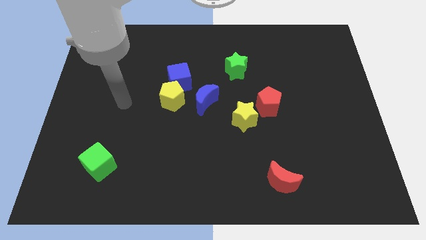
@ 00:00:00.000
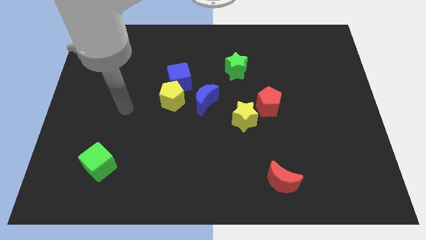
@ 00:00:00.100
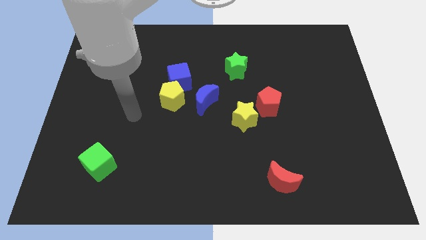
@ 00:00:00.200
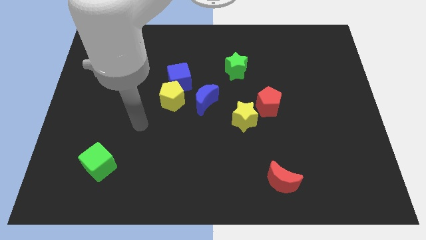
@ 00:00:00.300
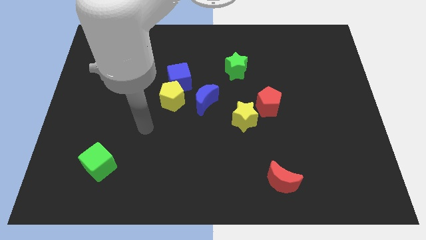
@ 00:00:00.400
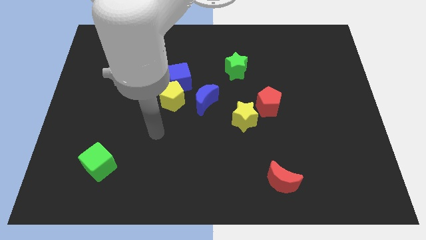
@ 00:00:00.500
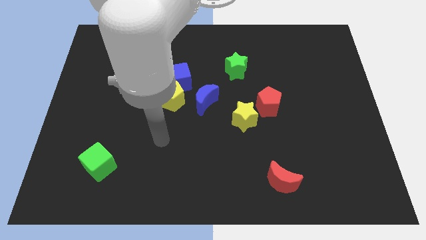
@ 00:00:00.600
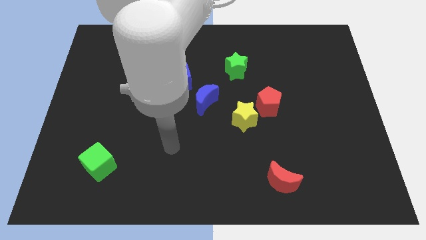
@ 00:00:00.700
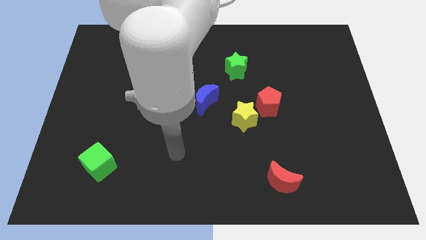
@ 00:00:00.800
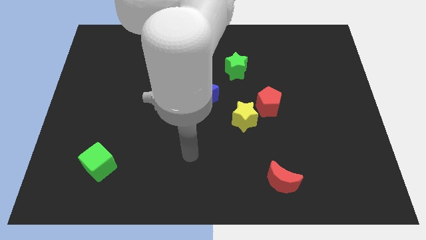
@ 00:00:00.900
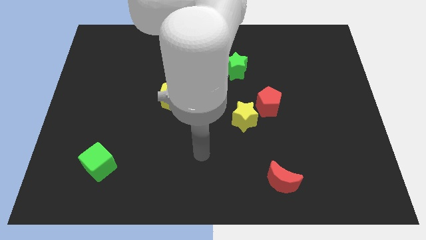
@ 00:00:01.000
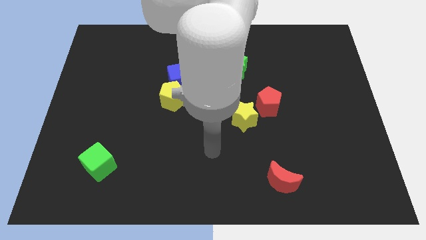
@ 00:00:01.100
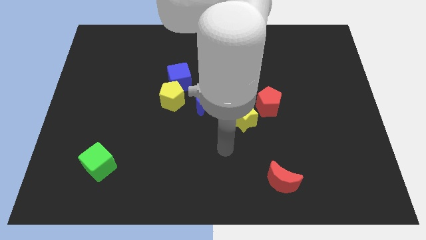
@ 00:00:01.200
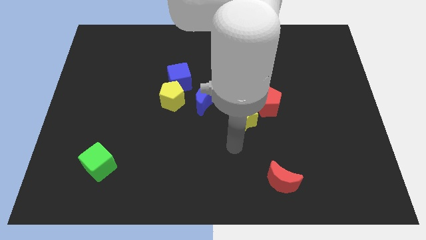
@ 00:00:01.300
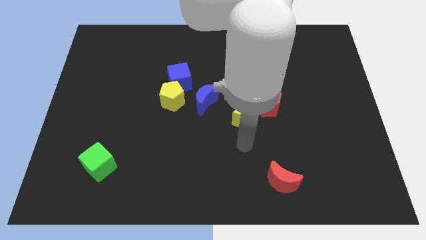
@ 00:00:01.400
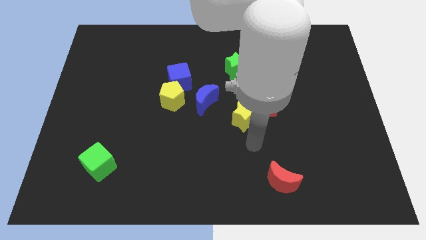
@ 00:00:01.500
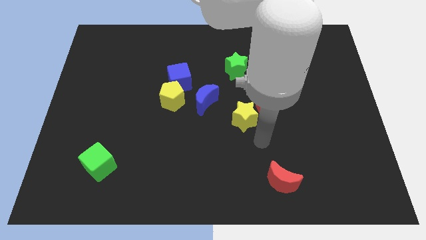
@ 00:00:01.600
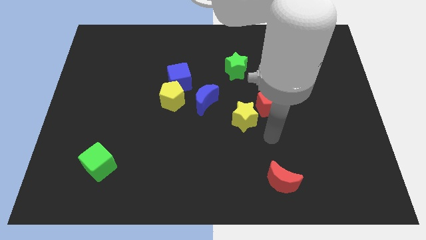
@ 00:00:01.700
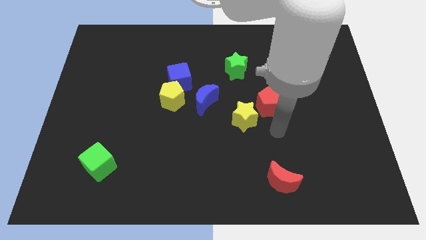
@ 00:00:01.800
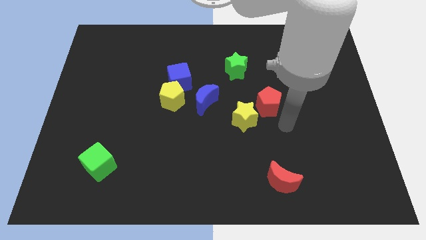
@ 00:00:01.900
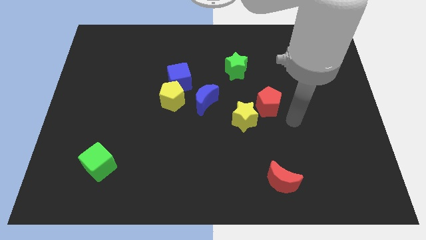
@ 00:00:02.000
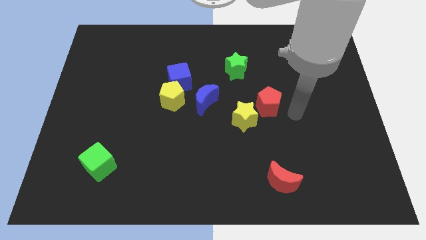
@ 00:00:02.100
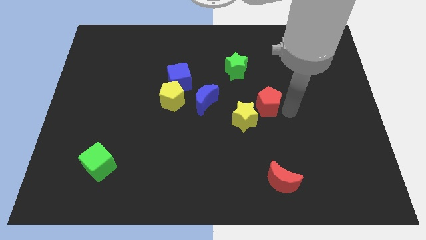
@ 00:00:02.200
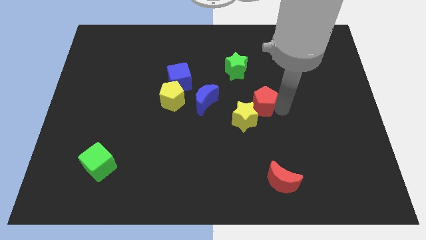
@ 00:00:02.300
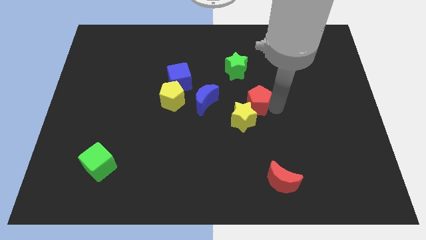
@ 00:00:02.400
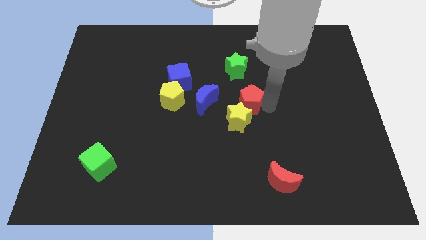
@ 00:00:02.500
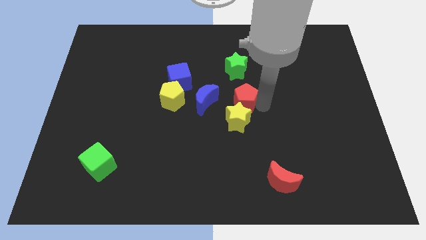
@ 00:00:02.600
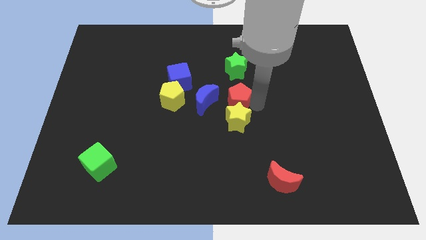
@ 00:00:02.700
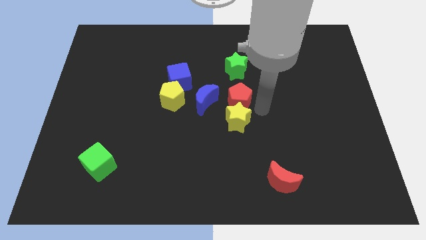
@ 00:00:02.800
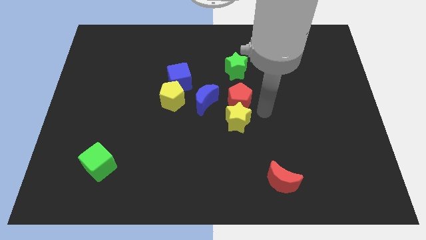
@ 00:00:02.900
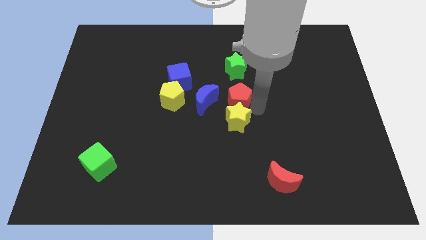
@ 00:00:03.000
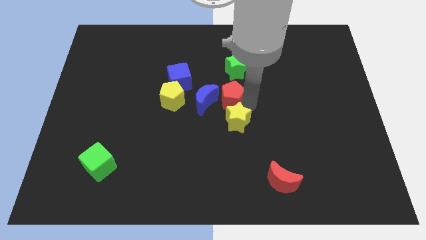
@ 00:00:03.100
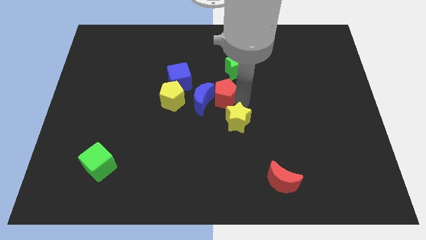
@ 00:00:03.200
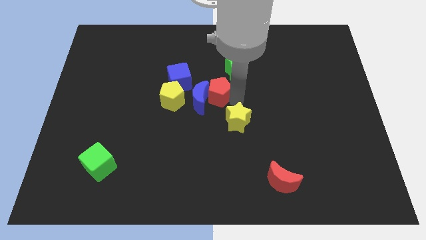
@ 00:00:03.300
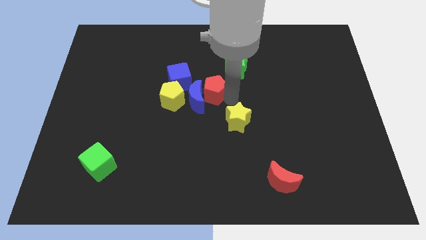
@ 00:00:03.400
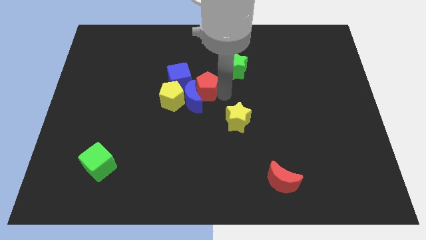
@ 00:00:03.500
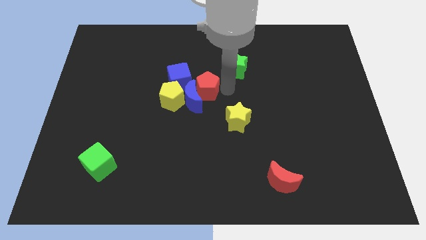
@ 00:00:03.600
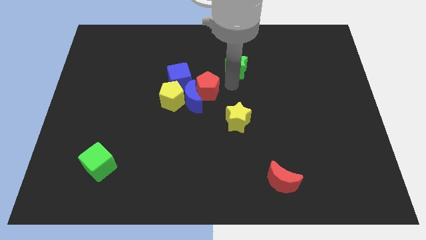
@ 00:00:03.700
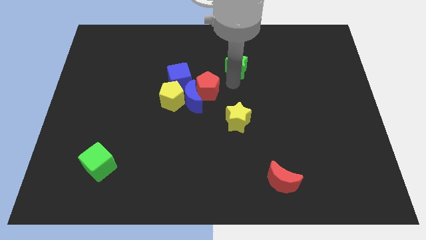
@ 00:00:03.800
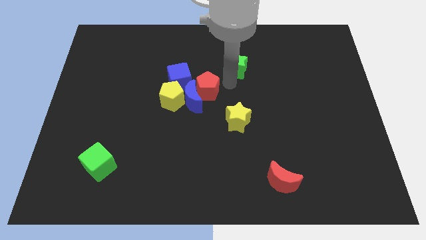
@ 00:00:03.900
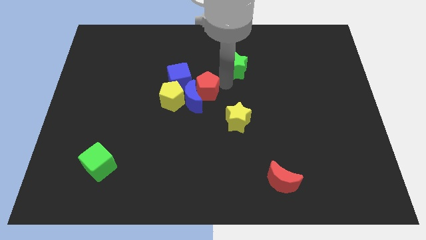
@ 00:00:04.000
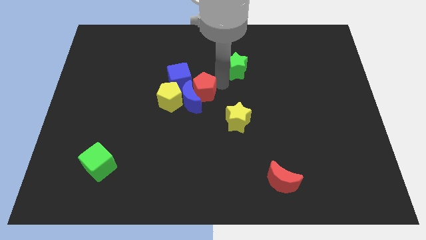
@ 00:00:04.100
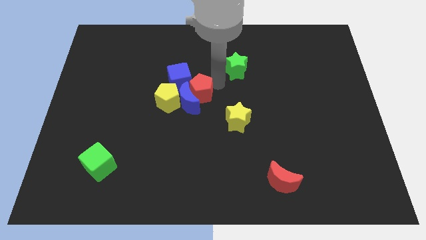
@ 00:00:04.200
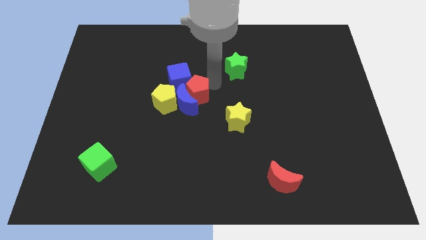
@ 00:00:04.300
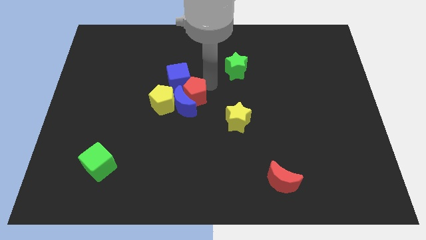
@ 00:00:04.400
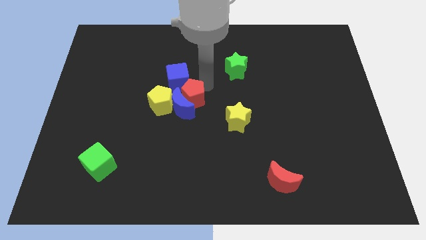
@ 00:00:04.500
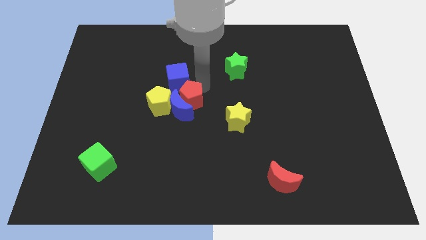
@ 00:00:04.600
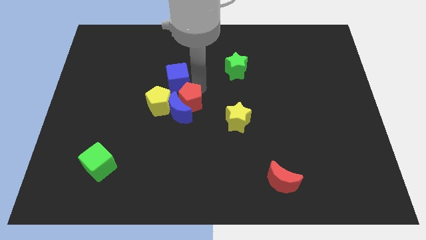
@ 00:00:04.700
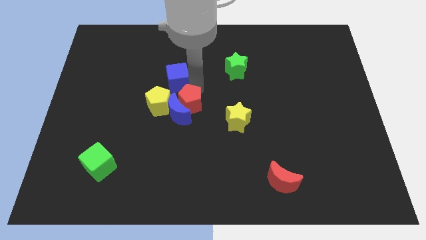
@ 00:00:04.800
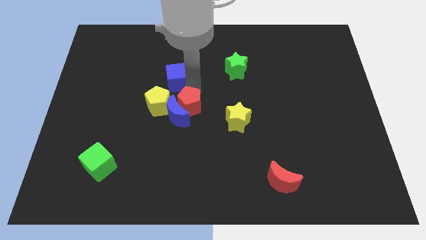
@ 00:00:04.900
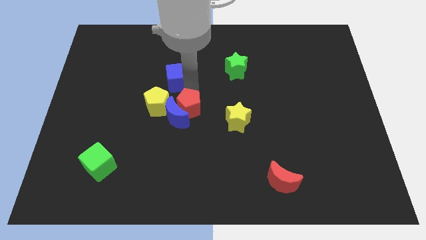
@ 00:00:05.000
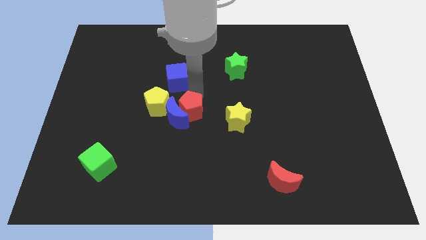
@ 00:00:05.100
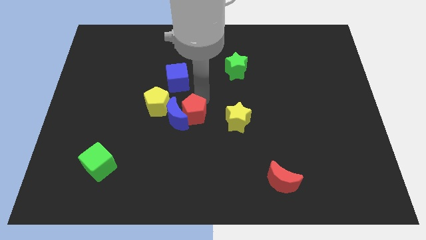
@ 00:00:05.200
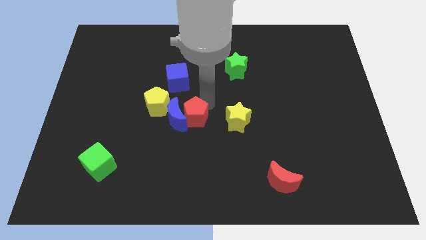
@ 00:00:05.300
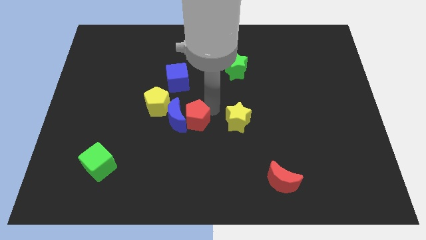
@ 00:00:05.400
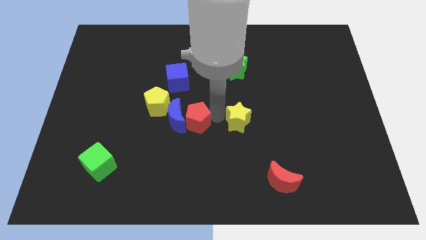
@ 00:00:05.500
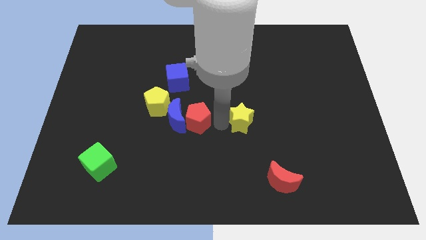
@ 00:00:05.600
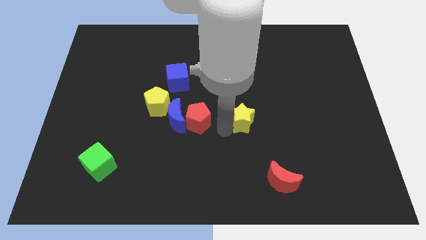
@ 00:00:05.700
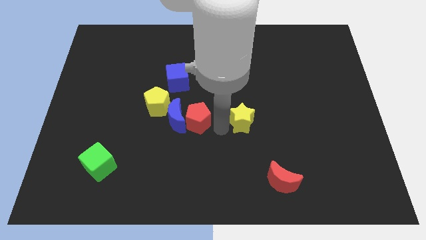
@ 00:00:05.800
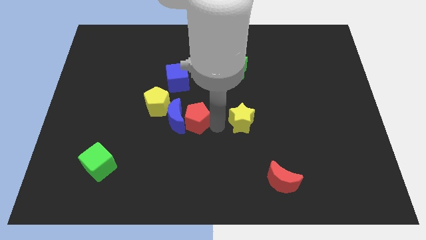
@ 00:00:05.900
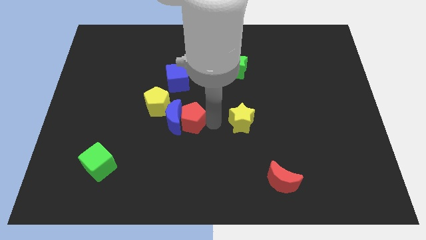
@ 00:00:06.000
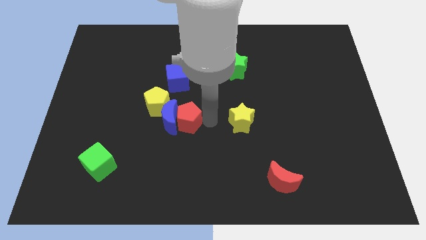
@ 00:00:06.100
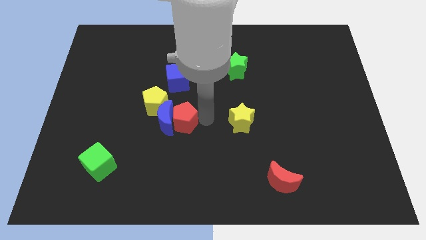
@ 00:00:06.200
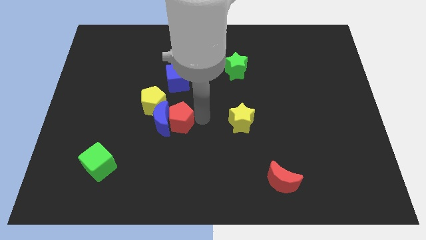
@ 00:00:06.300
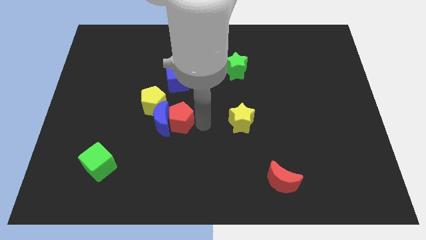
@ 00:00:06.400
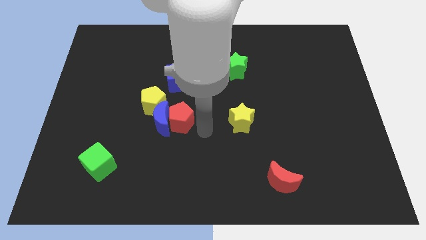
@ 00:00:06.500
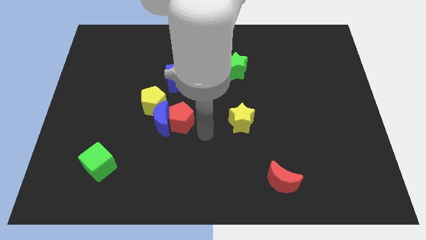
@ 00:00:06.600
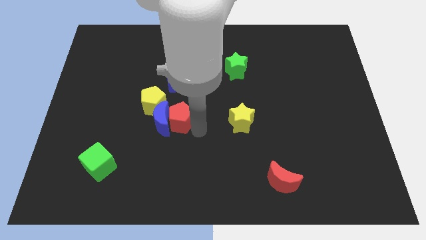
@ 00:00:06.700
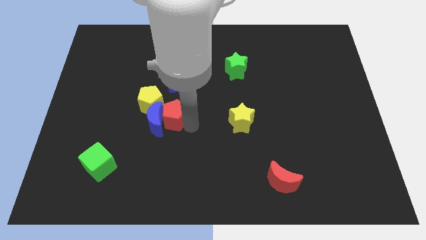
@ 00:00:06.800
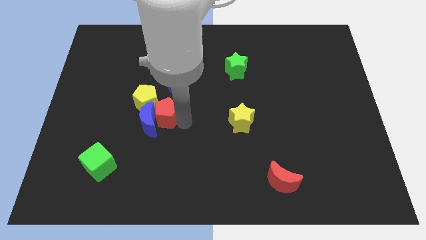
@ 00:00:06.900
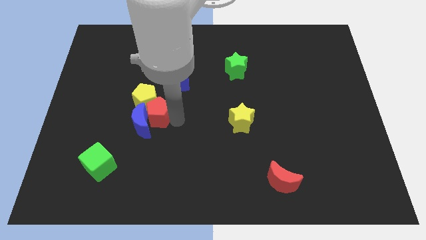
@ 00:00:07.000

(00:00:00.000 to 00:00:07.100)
push the red pentagon close to the yellow pentagon
